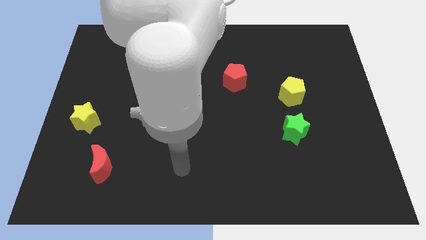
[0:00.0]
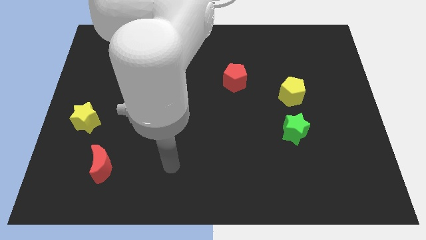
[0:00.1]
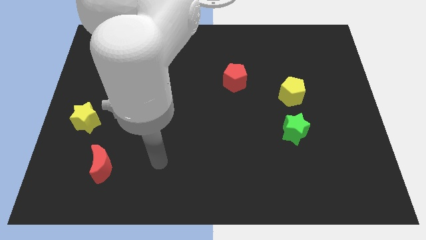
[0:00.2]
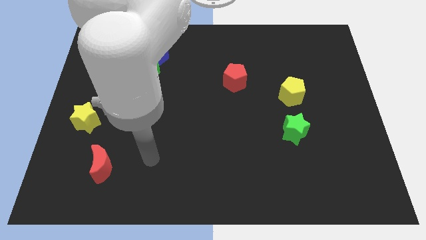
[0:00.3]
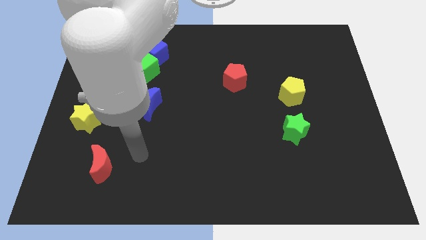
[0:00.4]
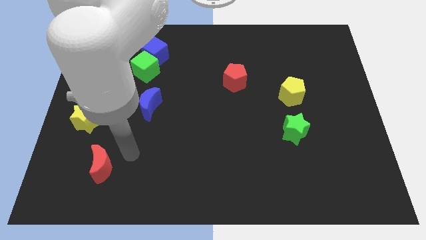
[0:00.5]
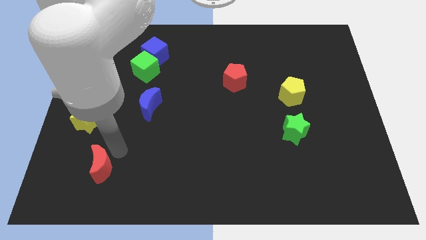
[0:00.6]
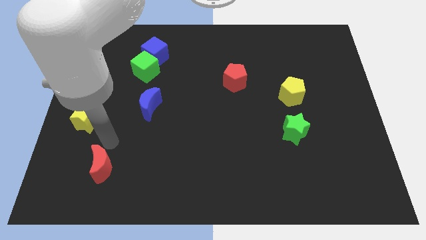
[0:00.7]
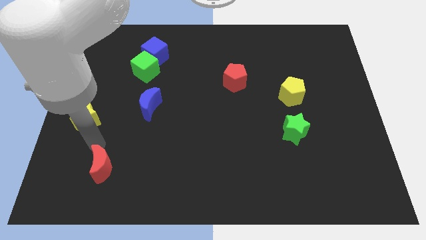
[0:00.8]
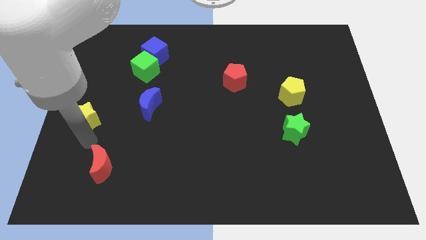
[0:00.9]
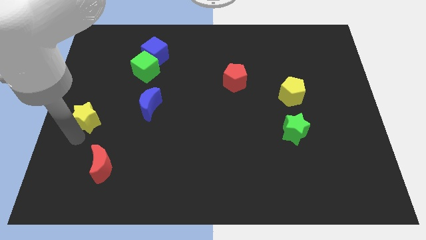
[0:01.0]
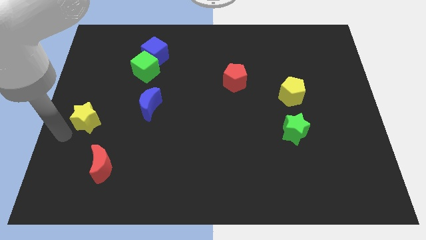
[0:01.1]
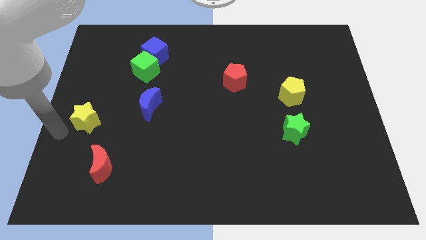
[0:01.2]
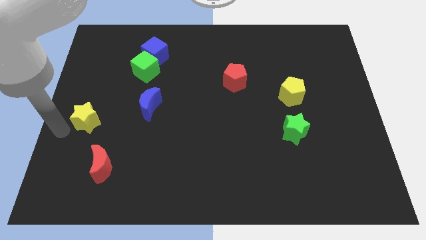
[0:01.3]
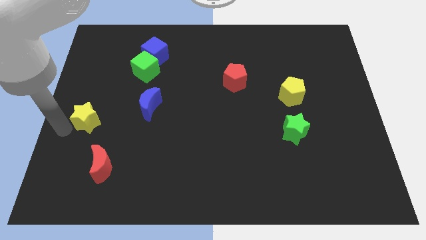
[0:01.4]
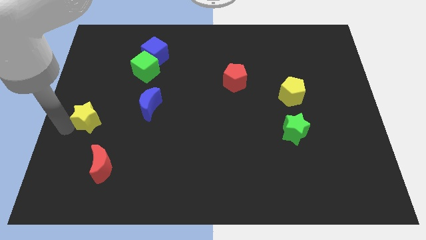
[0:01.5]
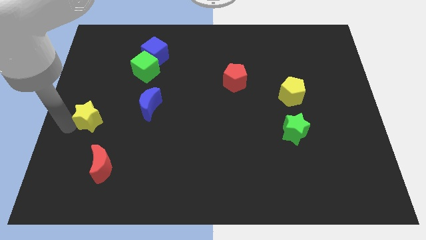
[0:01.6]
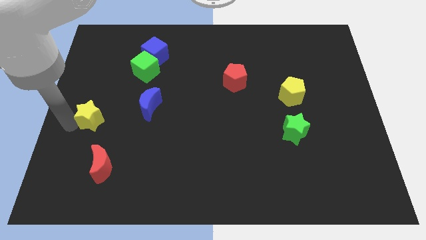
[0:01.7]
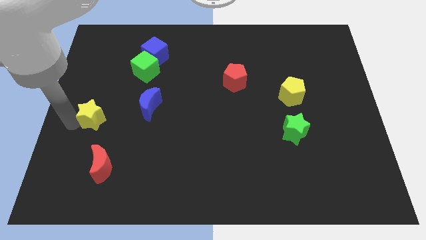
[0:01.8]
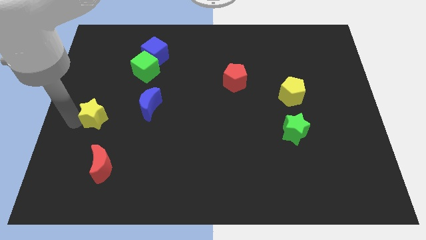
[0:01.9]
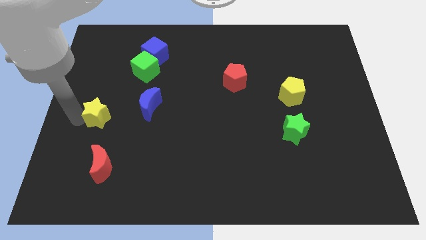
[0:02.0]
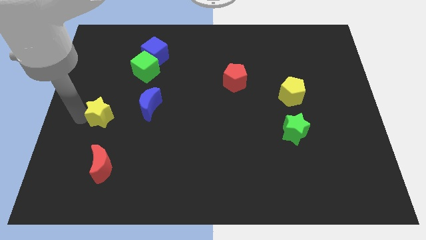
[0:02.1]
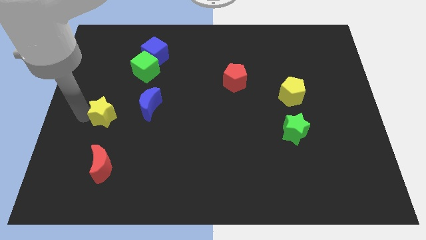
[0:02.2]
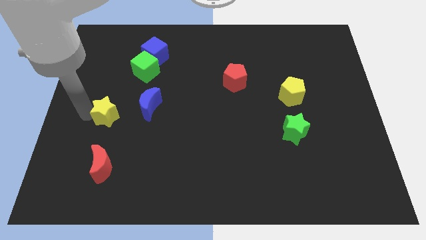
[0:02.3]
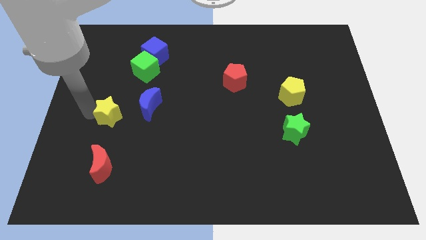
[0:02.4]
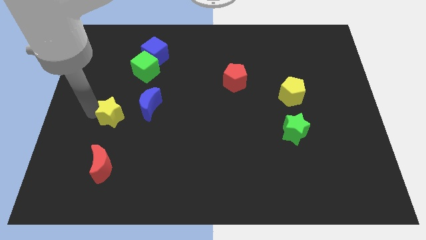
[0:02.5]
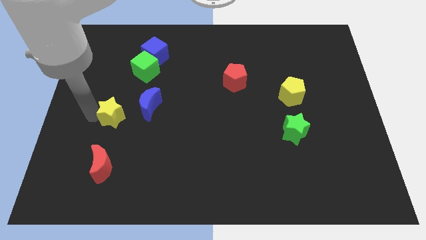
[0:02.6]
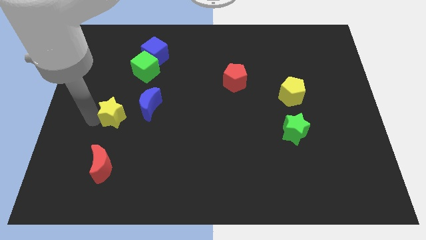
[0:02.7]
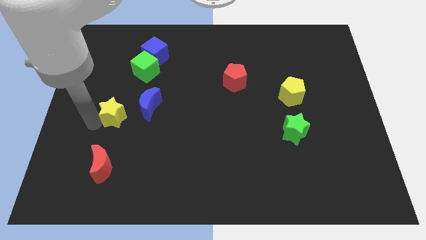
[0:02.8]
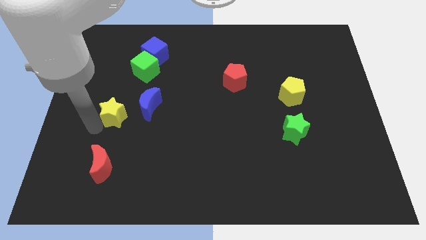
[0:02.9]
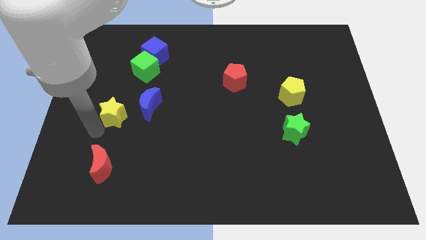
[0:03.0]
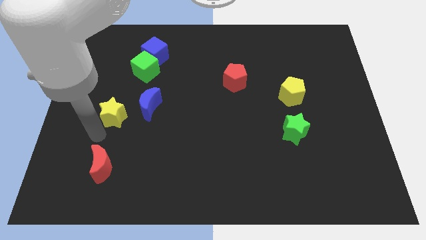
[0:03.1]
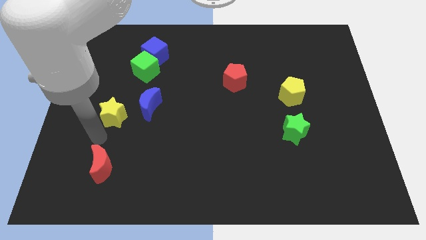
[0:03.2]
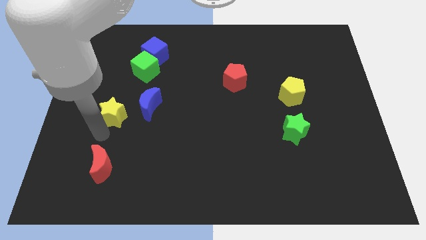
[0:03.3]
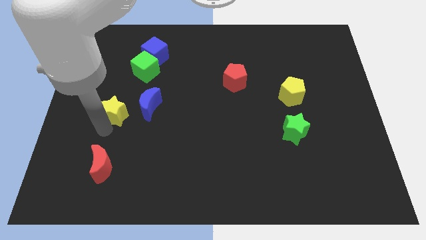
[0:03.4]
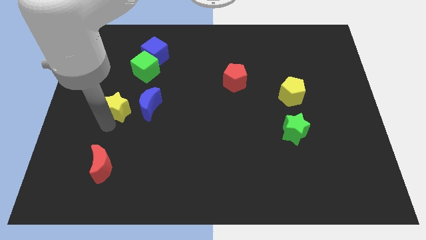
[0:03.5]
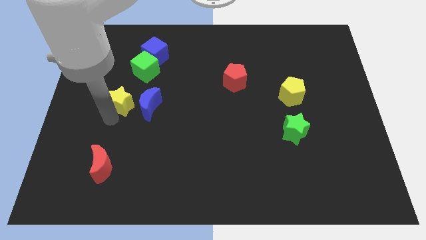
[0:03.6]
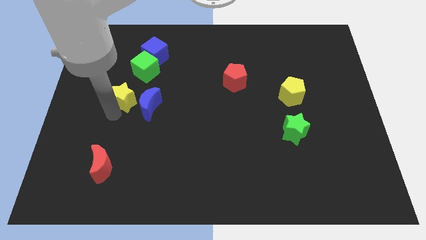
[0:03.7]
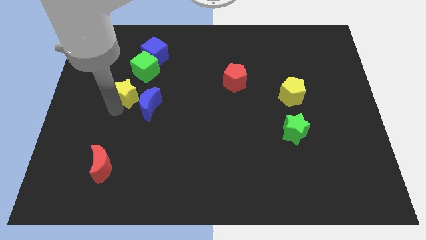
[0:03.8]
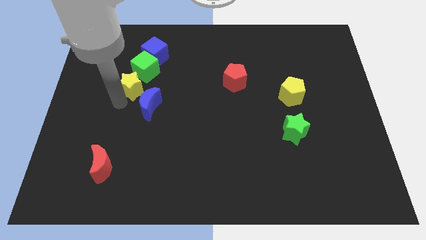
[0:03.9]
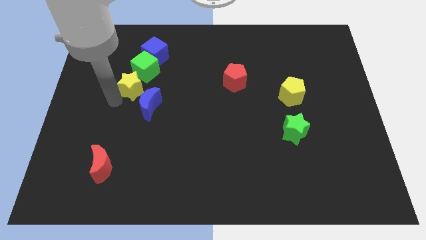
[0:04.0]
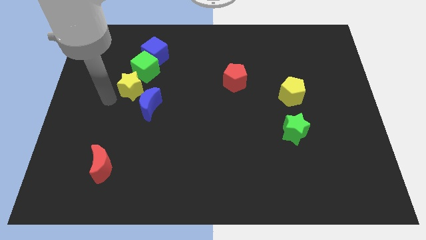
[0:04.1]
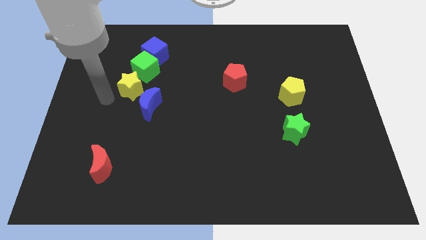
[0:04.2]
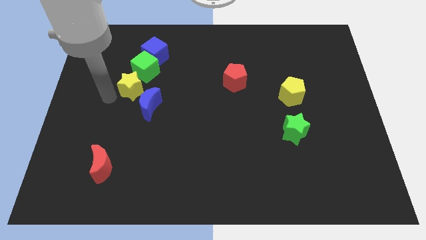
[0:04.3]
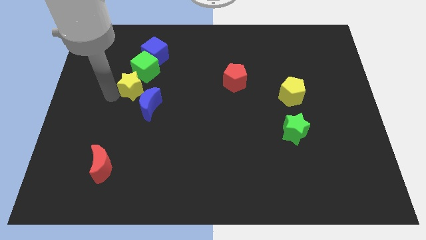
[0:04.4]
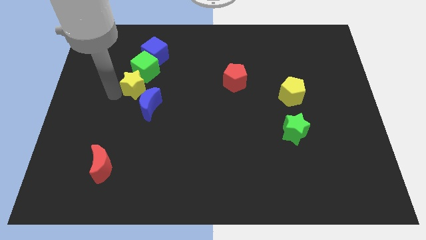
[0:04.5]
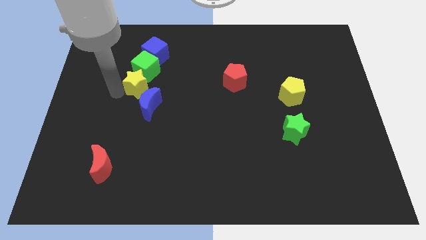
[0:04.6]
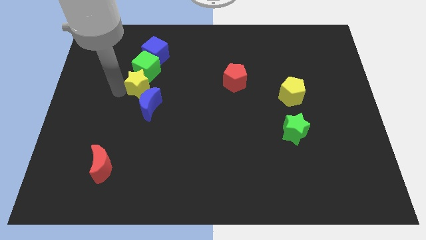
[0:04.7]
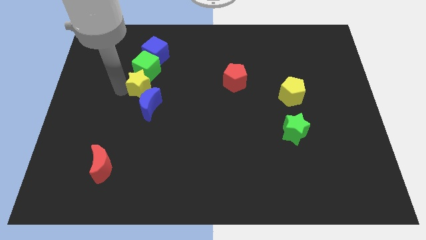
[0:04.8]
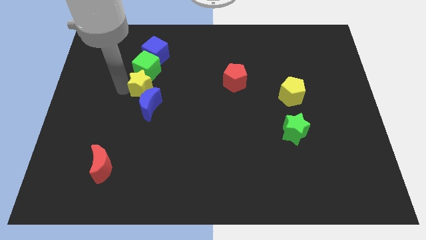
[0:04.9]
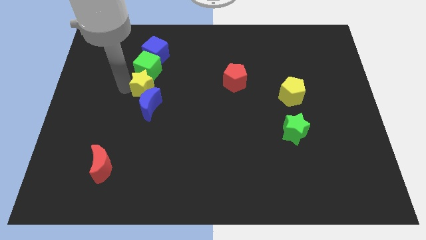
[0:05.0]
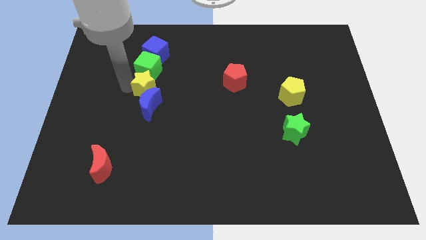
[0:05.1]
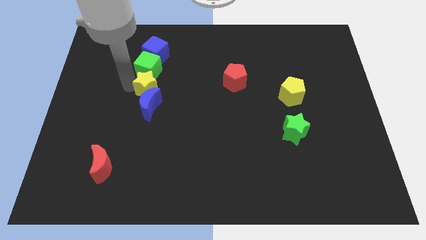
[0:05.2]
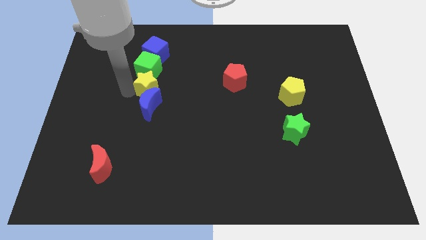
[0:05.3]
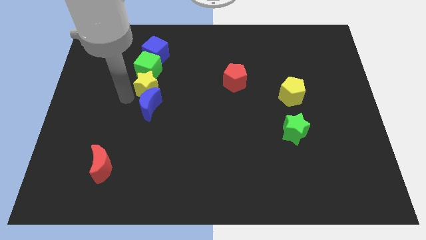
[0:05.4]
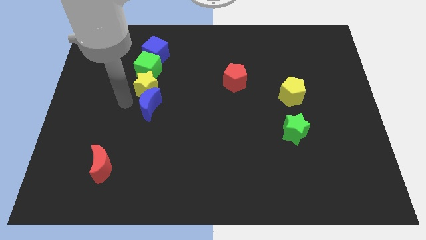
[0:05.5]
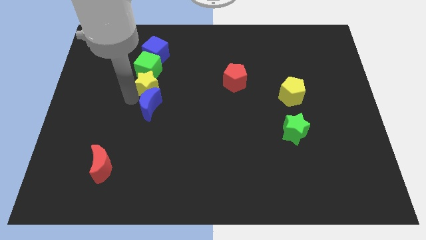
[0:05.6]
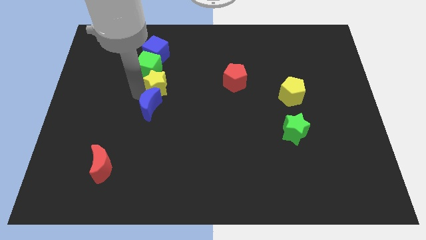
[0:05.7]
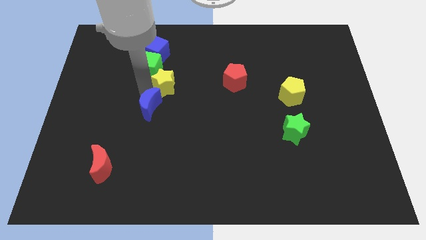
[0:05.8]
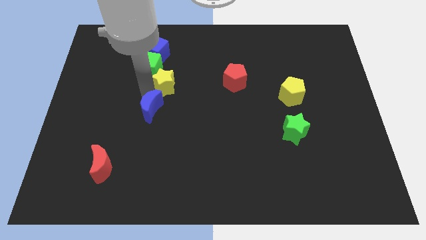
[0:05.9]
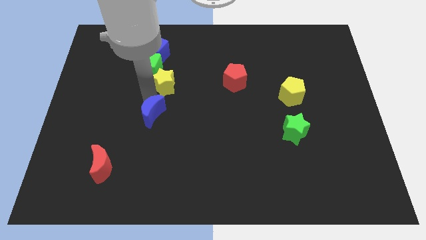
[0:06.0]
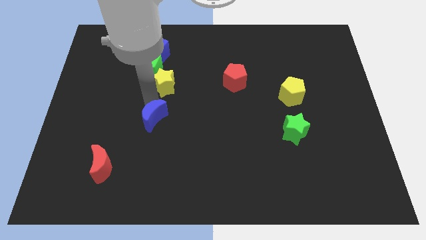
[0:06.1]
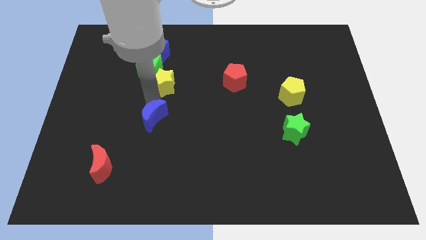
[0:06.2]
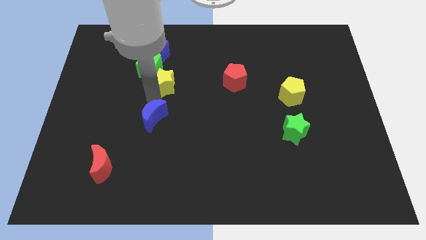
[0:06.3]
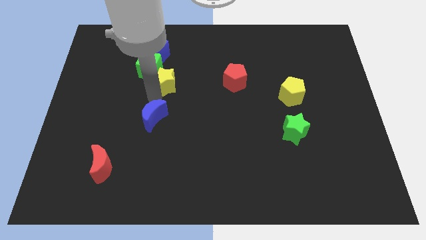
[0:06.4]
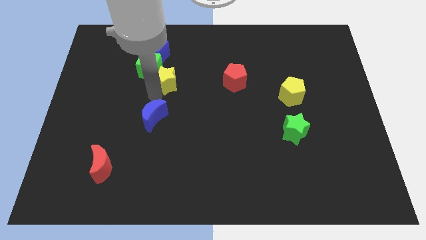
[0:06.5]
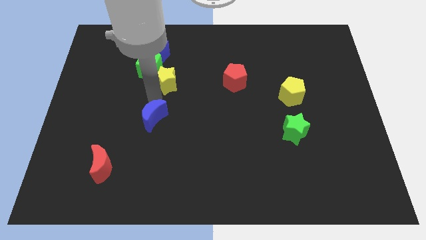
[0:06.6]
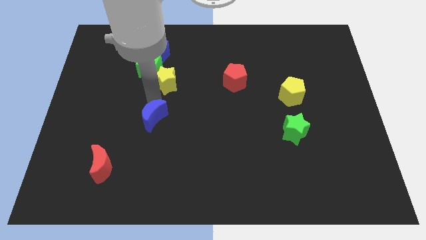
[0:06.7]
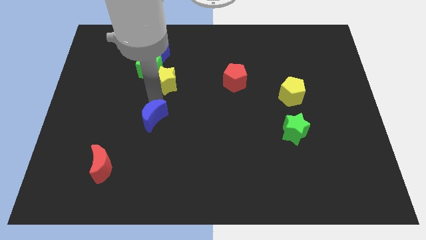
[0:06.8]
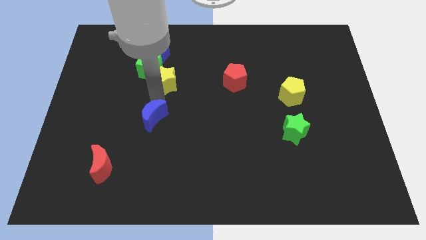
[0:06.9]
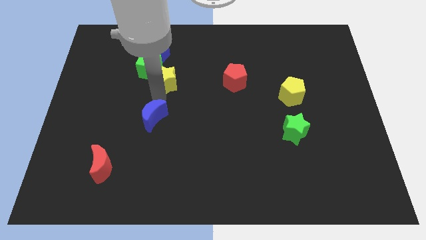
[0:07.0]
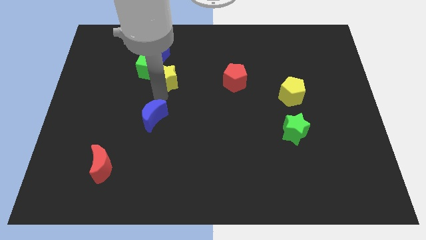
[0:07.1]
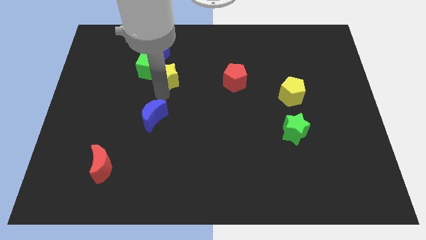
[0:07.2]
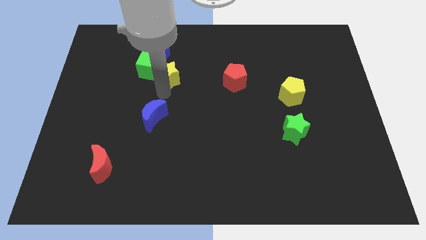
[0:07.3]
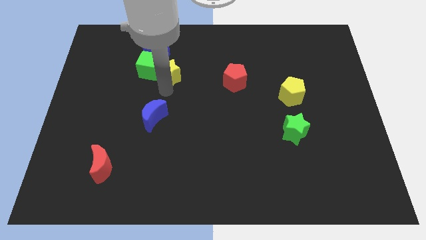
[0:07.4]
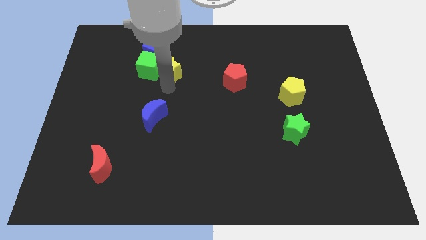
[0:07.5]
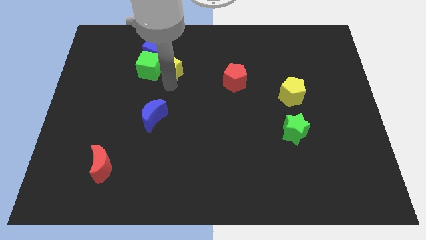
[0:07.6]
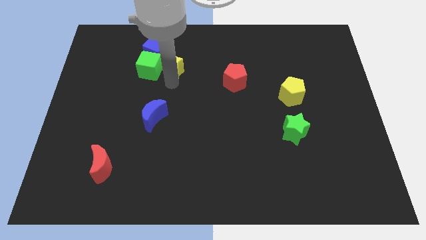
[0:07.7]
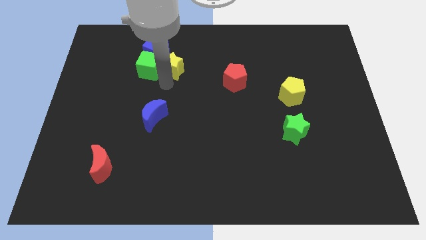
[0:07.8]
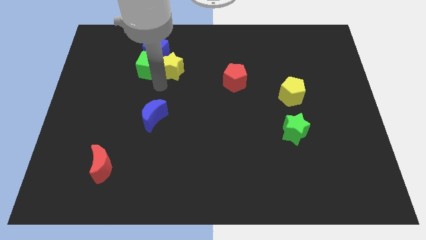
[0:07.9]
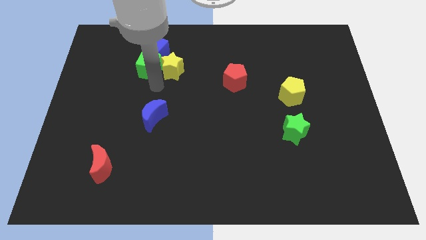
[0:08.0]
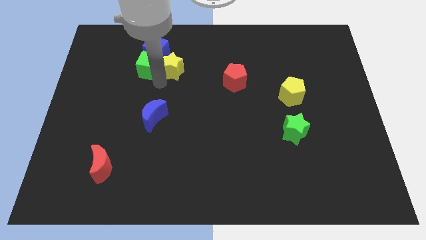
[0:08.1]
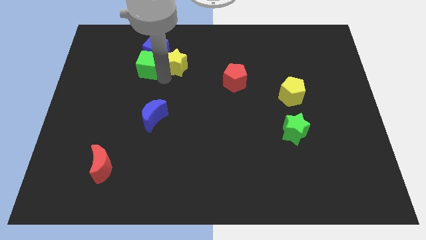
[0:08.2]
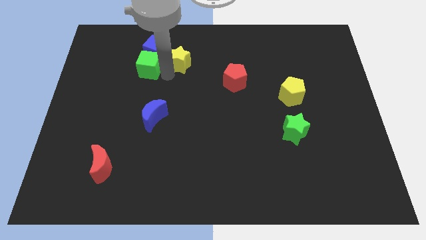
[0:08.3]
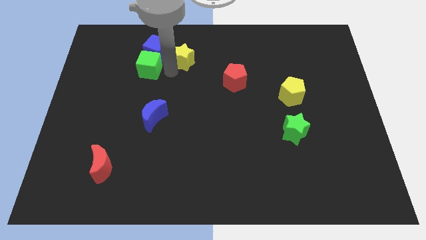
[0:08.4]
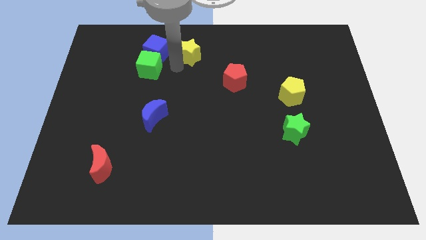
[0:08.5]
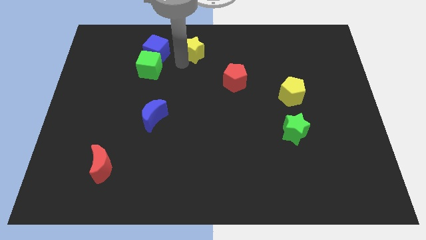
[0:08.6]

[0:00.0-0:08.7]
slide the yellow star to the towards your base
